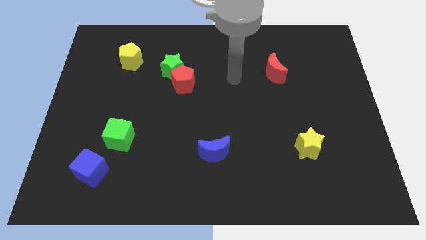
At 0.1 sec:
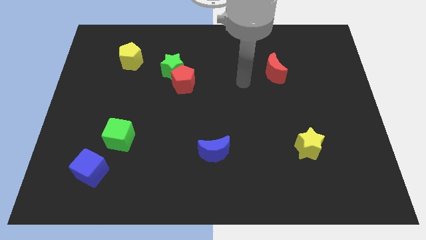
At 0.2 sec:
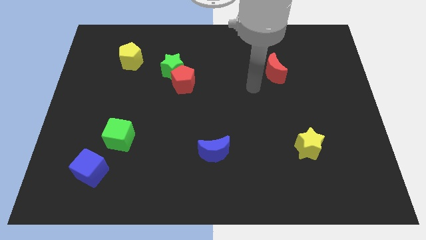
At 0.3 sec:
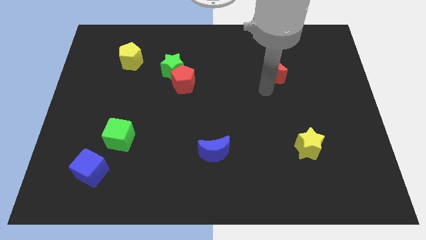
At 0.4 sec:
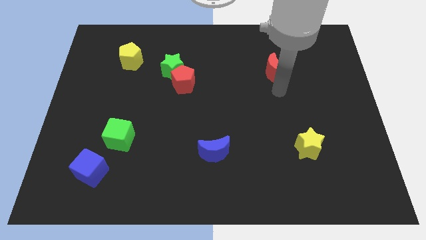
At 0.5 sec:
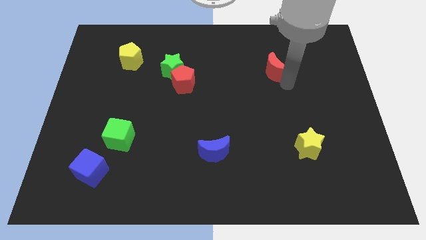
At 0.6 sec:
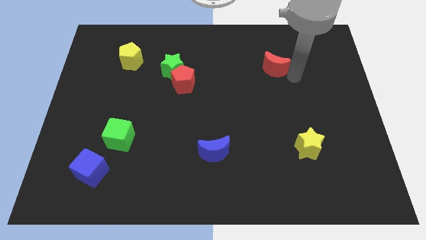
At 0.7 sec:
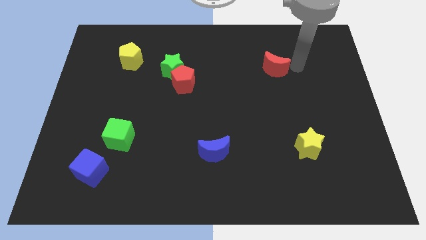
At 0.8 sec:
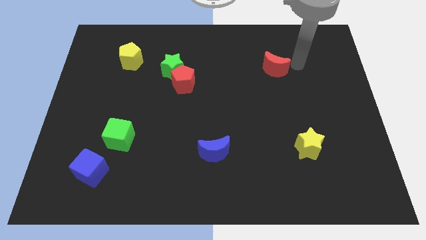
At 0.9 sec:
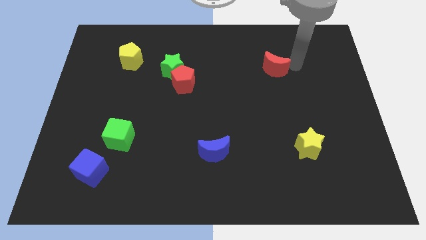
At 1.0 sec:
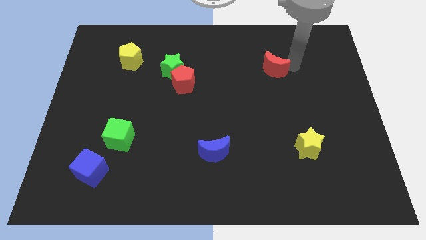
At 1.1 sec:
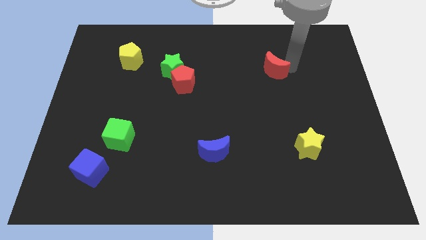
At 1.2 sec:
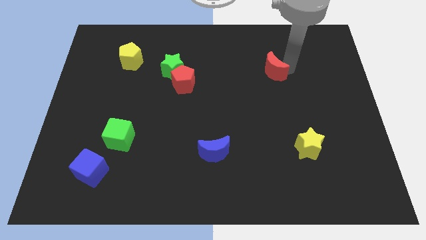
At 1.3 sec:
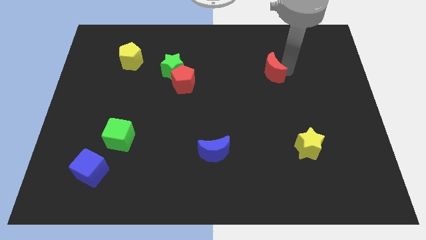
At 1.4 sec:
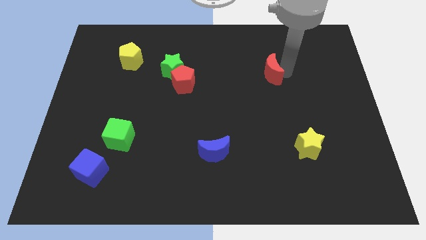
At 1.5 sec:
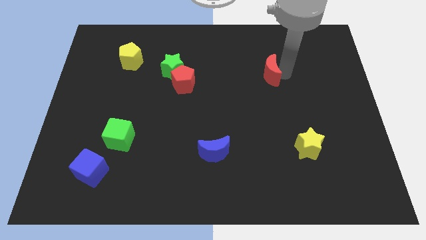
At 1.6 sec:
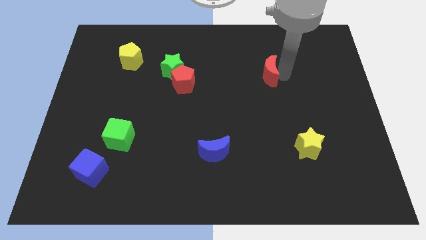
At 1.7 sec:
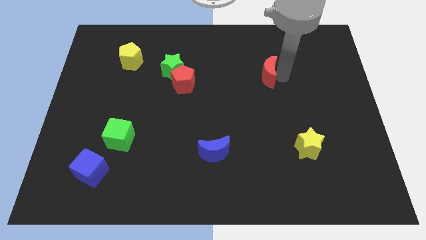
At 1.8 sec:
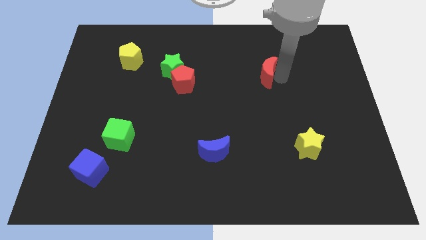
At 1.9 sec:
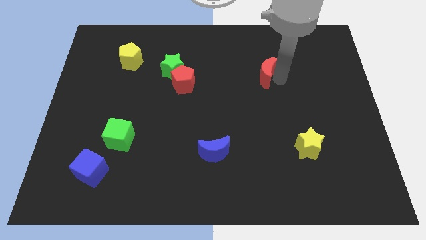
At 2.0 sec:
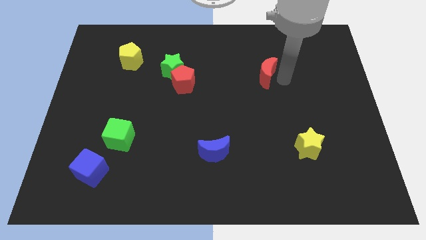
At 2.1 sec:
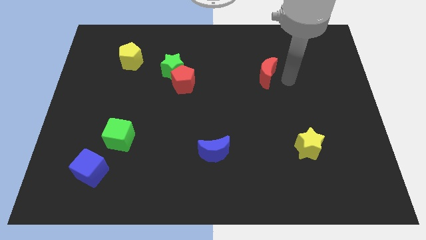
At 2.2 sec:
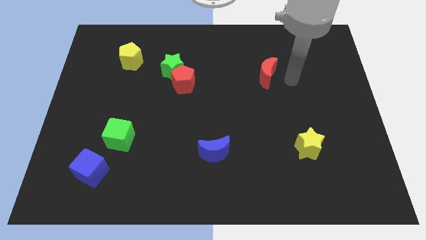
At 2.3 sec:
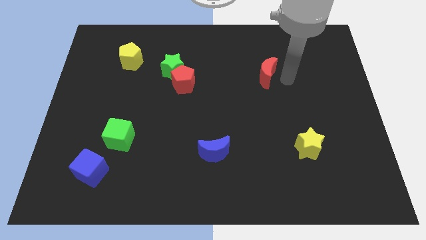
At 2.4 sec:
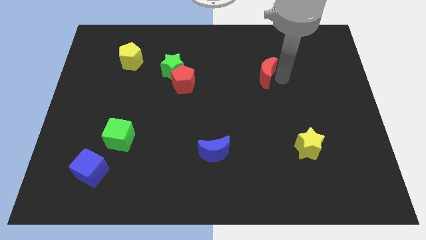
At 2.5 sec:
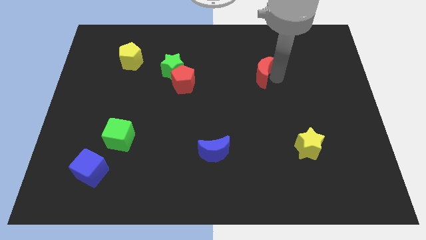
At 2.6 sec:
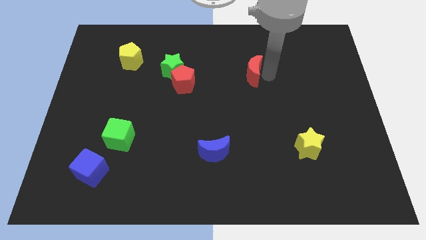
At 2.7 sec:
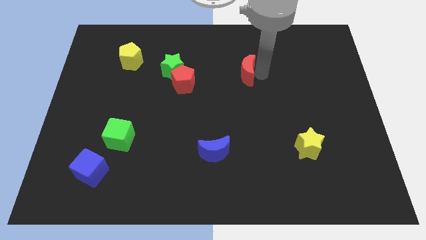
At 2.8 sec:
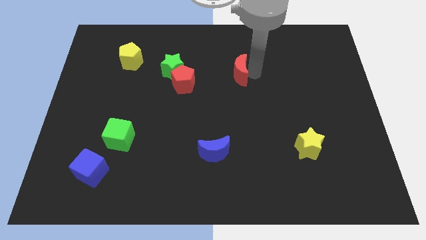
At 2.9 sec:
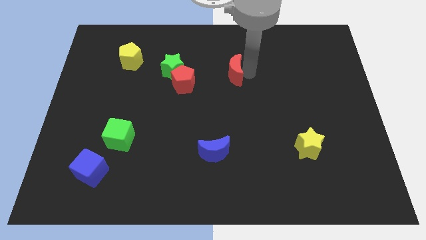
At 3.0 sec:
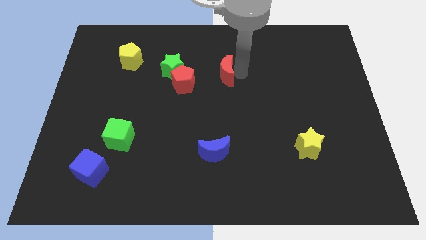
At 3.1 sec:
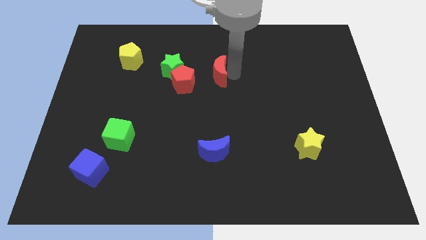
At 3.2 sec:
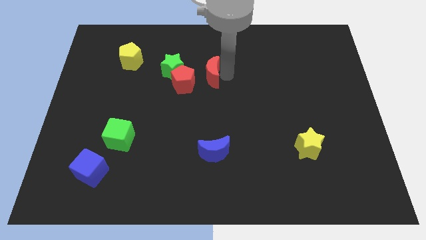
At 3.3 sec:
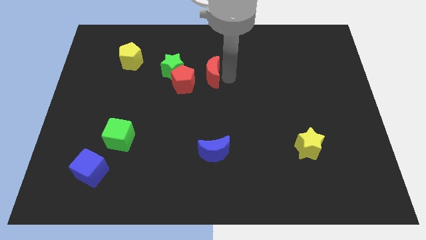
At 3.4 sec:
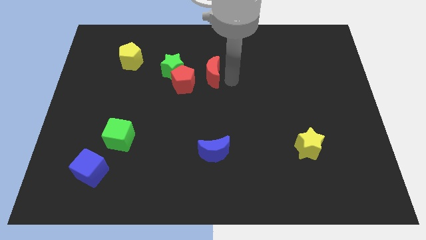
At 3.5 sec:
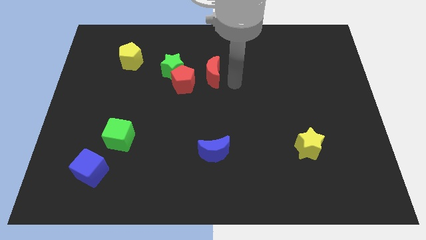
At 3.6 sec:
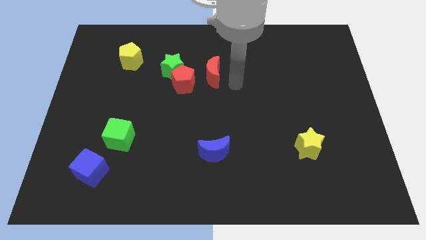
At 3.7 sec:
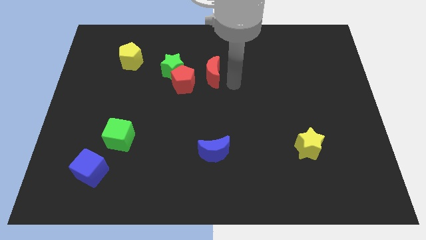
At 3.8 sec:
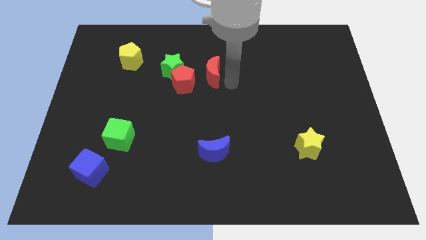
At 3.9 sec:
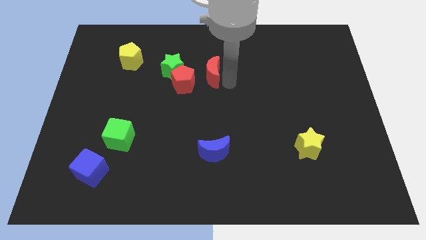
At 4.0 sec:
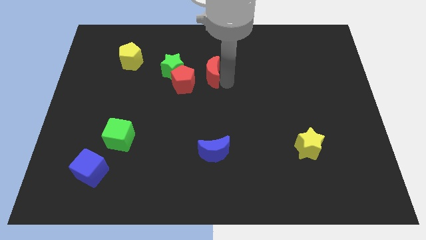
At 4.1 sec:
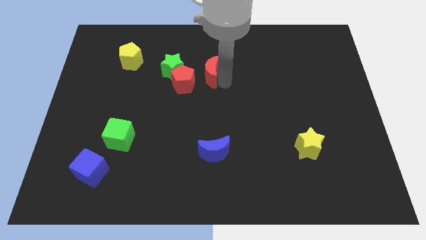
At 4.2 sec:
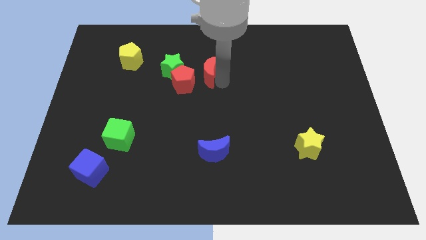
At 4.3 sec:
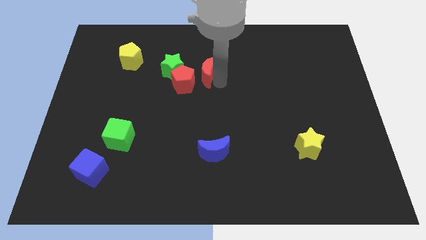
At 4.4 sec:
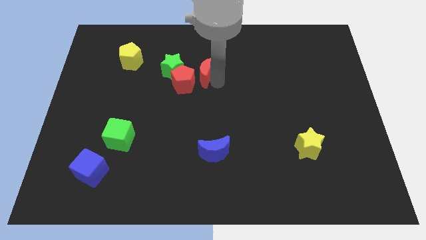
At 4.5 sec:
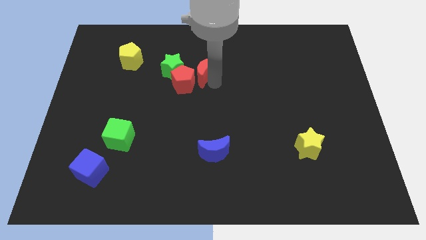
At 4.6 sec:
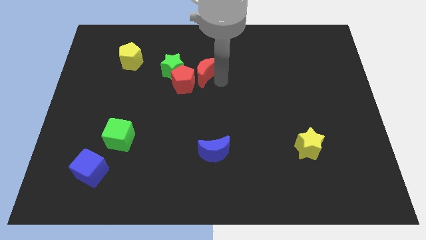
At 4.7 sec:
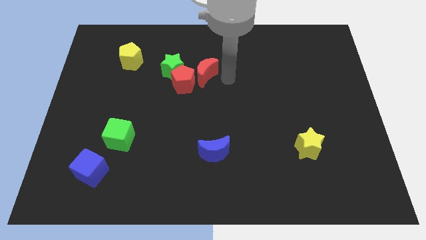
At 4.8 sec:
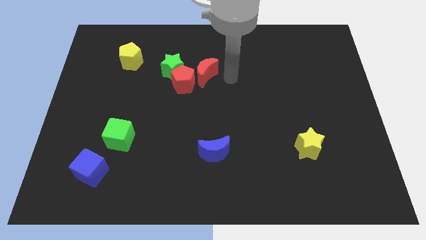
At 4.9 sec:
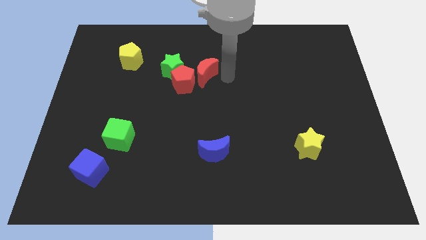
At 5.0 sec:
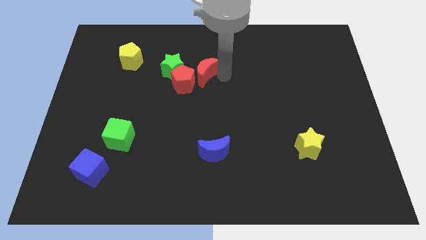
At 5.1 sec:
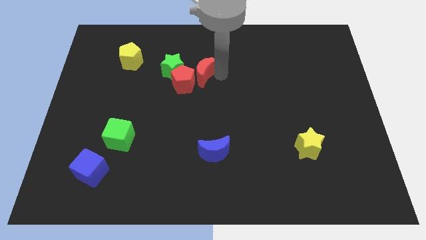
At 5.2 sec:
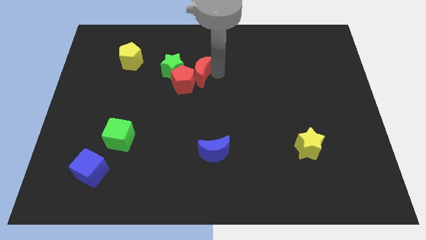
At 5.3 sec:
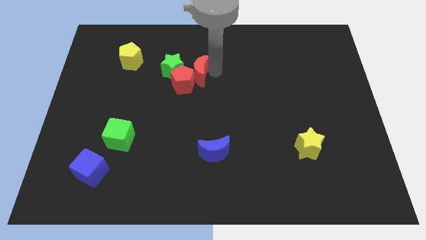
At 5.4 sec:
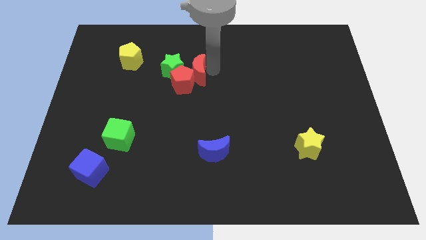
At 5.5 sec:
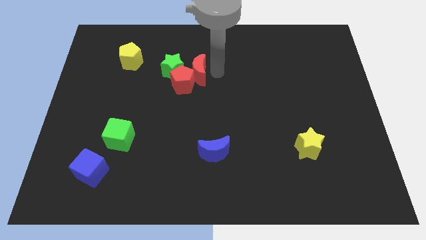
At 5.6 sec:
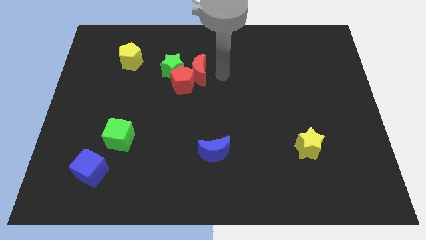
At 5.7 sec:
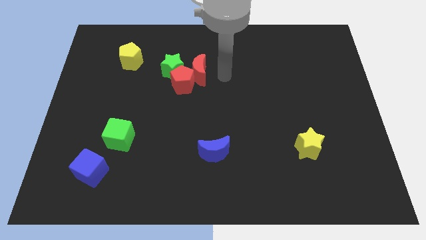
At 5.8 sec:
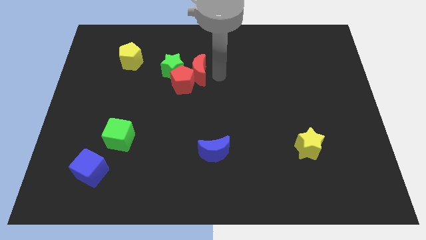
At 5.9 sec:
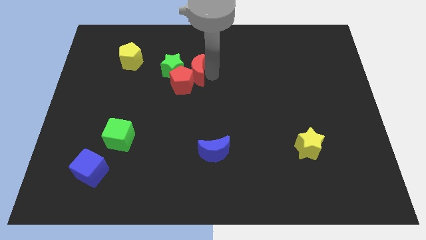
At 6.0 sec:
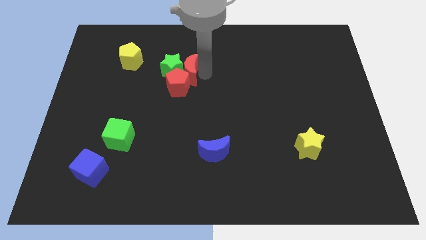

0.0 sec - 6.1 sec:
slide the red moon close to the green star

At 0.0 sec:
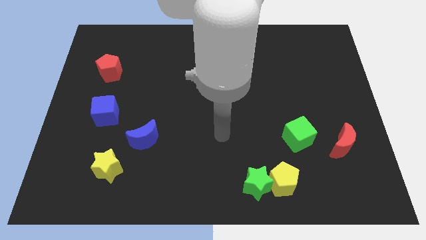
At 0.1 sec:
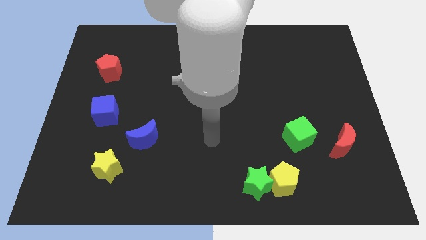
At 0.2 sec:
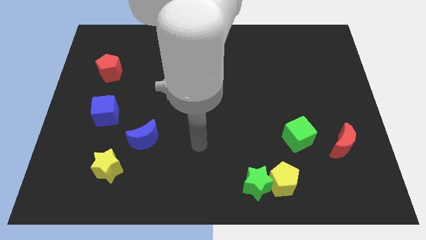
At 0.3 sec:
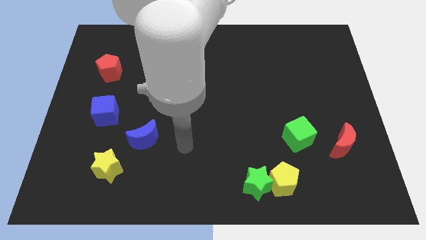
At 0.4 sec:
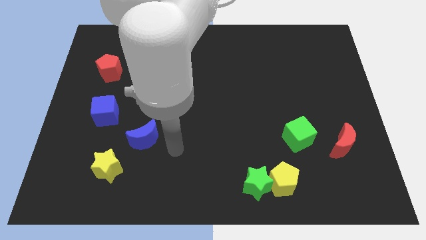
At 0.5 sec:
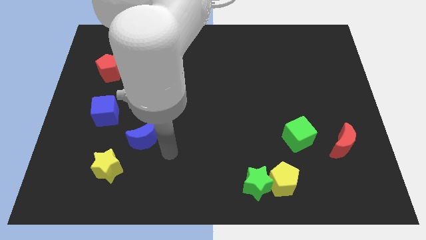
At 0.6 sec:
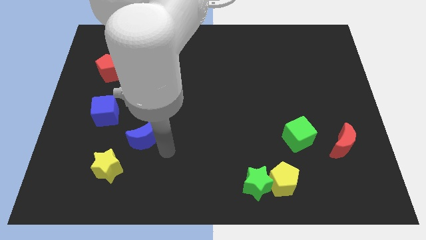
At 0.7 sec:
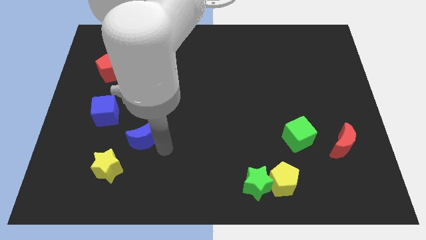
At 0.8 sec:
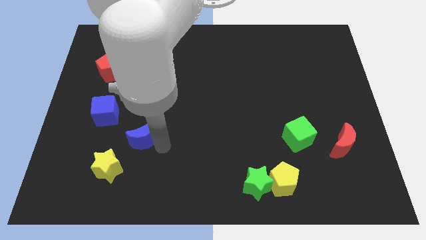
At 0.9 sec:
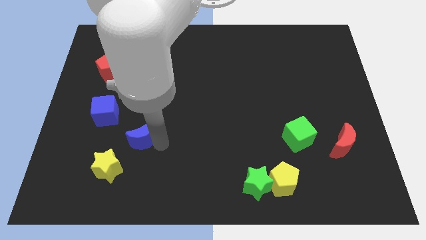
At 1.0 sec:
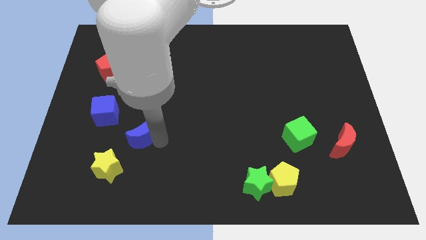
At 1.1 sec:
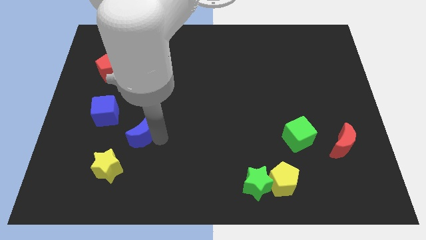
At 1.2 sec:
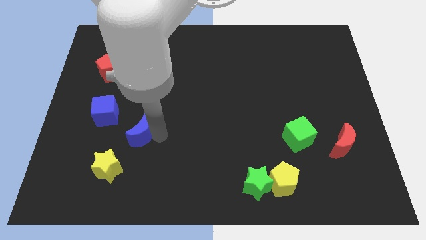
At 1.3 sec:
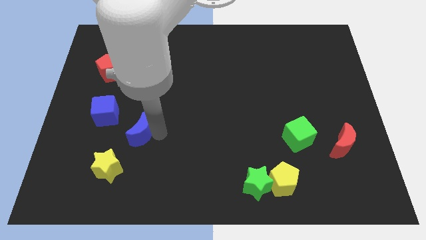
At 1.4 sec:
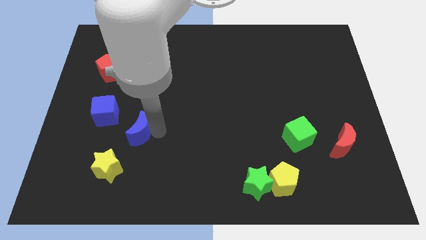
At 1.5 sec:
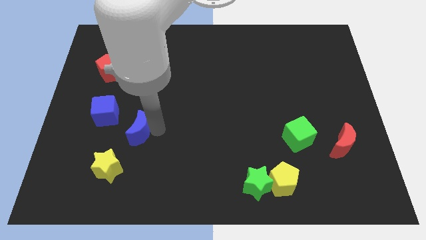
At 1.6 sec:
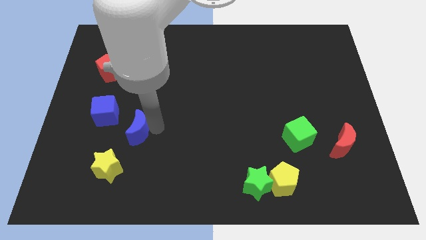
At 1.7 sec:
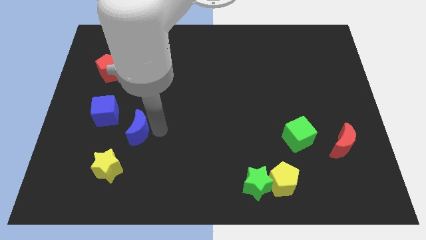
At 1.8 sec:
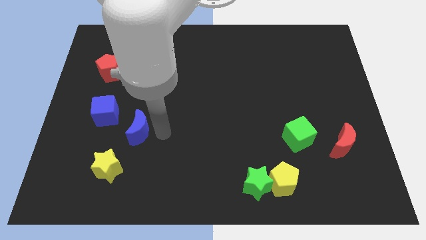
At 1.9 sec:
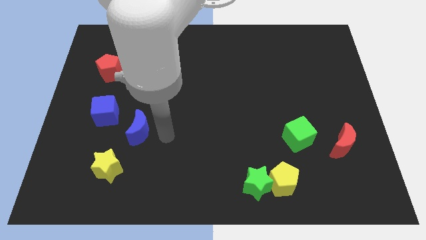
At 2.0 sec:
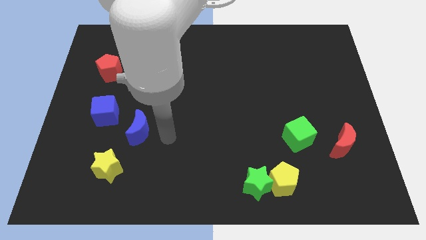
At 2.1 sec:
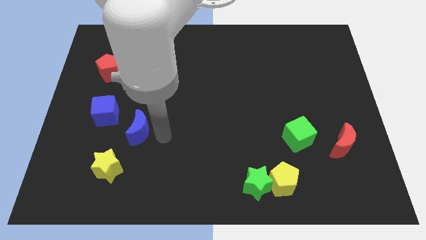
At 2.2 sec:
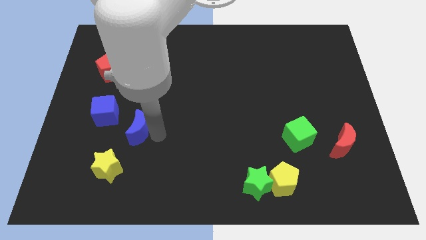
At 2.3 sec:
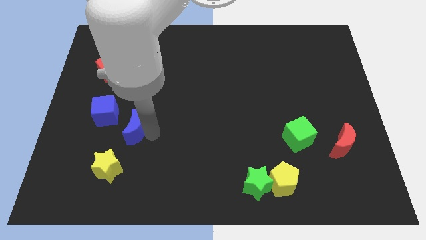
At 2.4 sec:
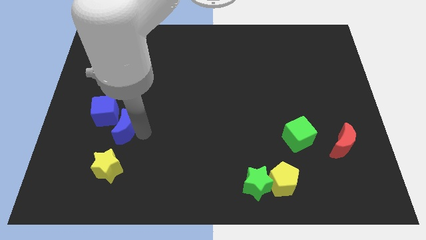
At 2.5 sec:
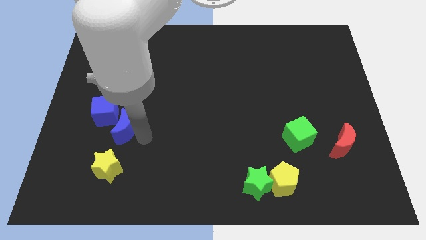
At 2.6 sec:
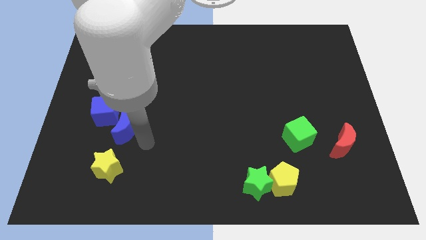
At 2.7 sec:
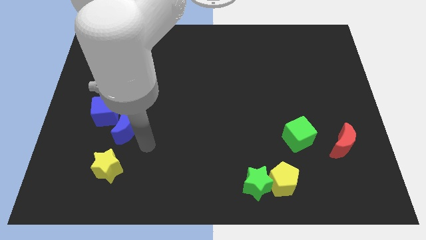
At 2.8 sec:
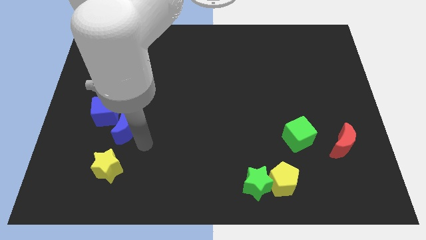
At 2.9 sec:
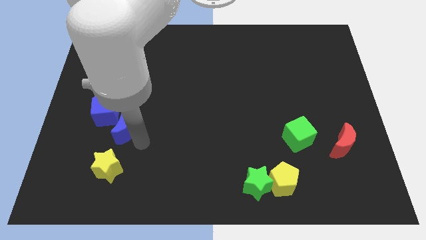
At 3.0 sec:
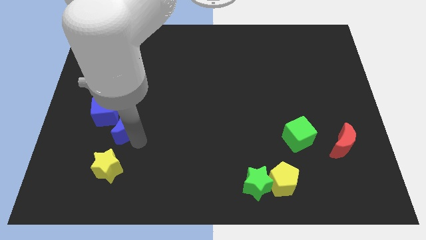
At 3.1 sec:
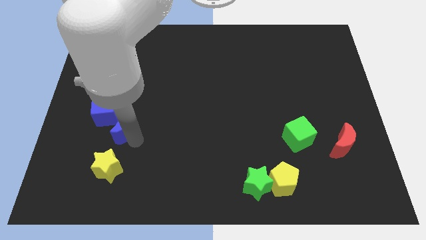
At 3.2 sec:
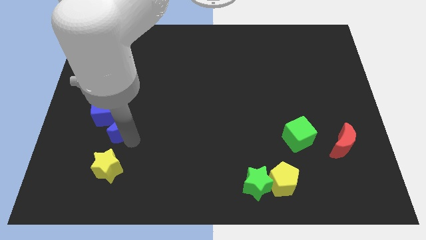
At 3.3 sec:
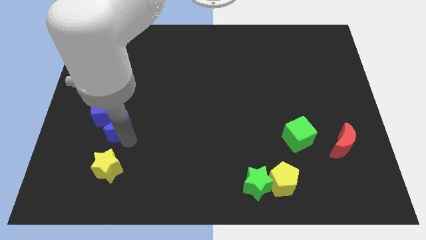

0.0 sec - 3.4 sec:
slide the blue moon close to the blue cube
